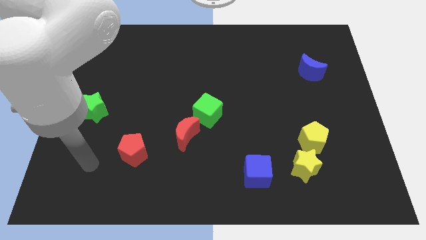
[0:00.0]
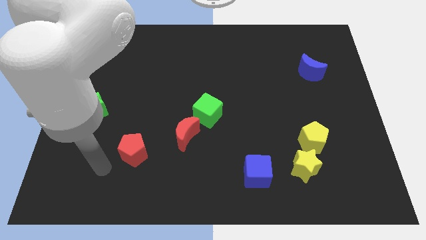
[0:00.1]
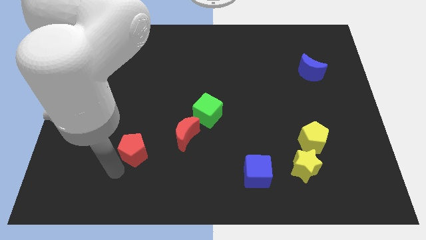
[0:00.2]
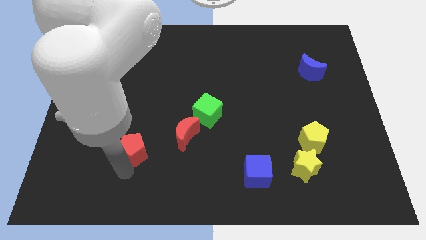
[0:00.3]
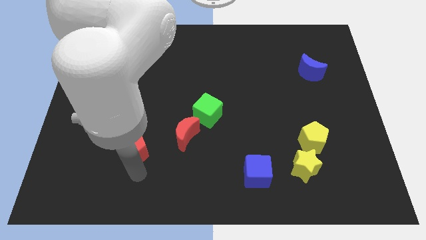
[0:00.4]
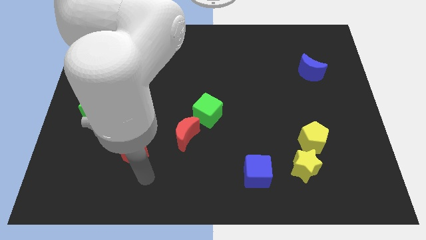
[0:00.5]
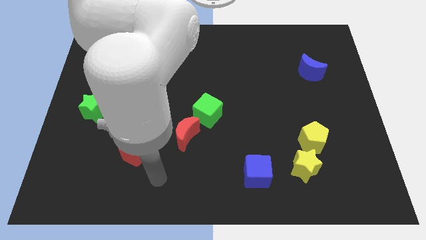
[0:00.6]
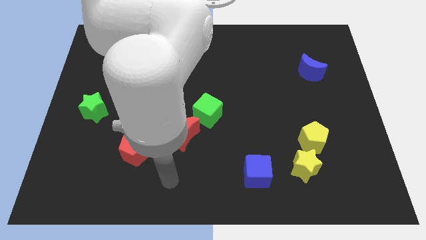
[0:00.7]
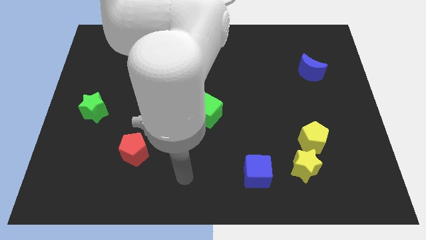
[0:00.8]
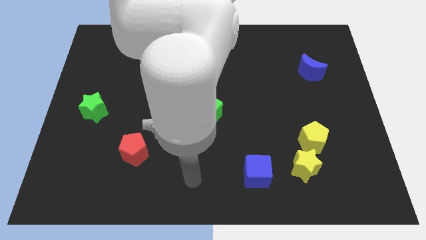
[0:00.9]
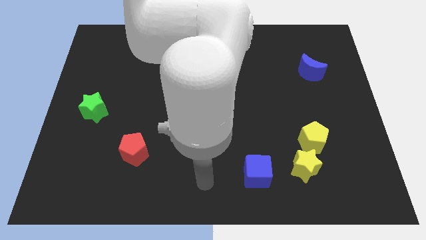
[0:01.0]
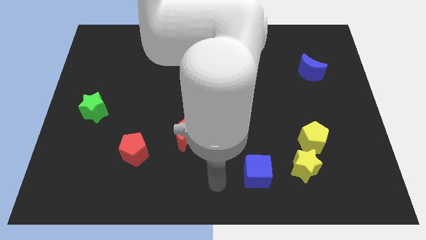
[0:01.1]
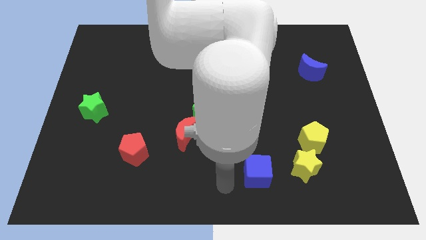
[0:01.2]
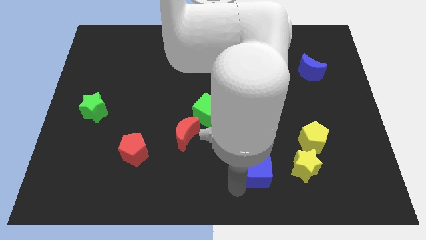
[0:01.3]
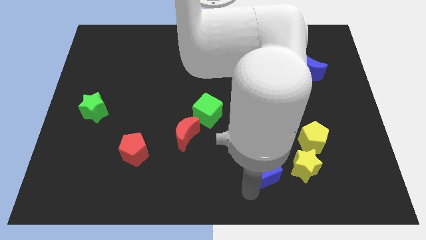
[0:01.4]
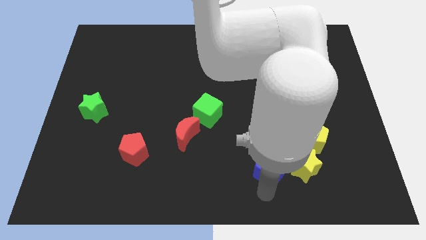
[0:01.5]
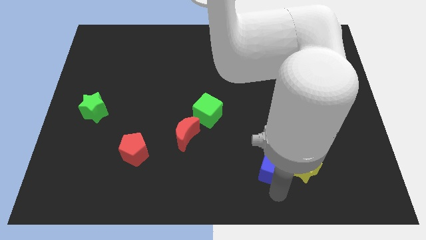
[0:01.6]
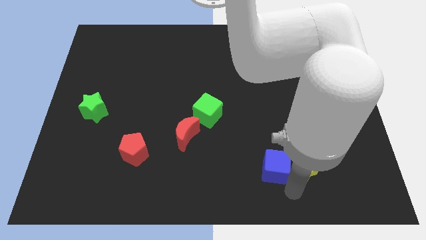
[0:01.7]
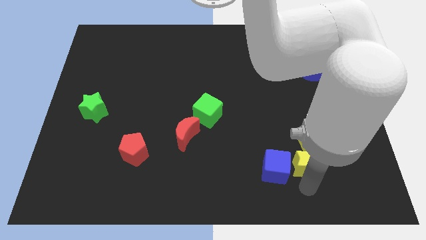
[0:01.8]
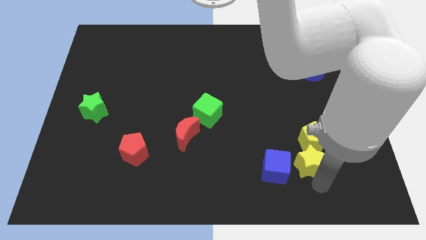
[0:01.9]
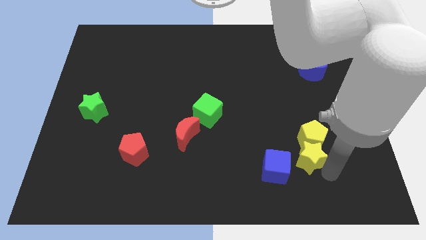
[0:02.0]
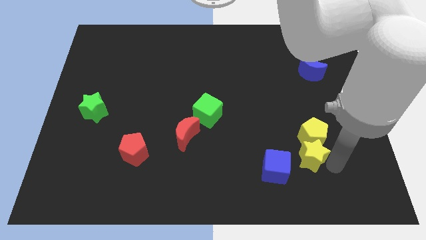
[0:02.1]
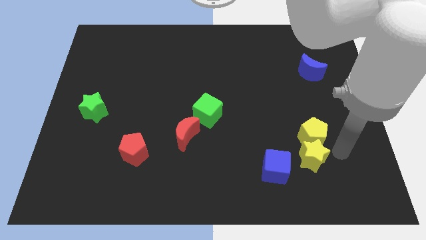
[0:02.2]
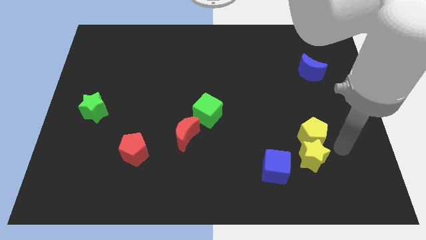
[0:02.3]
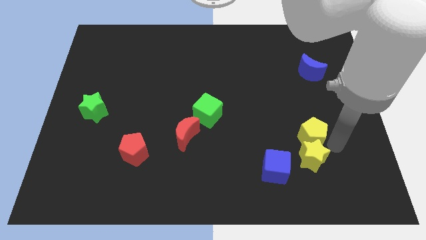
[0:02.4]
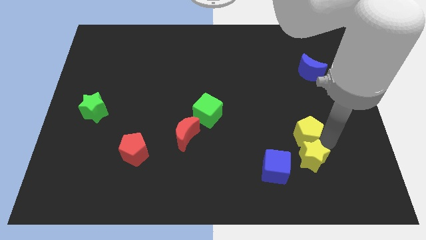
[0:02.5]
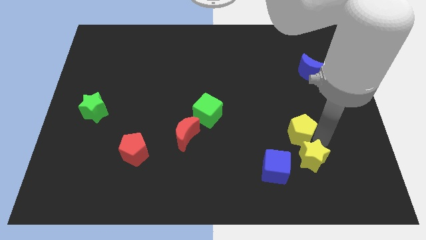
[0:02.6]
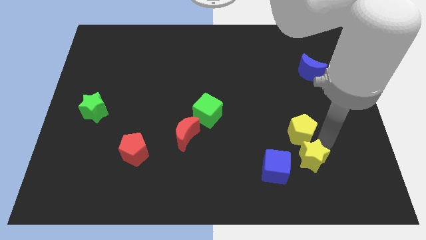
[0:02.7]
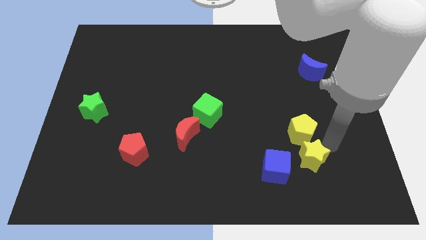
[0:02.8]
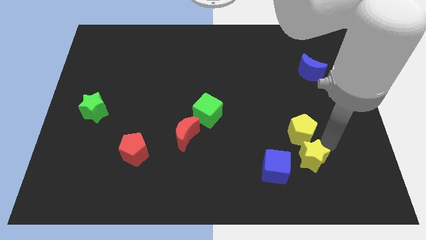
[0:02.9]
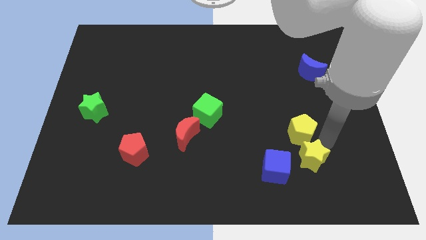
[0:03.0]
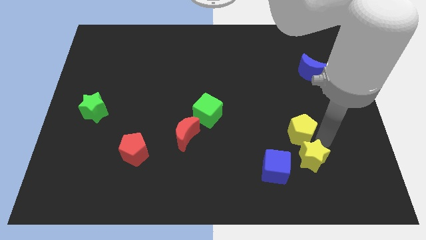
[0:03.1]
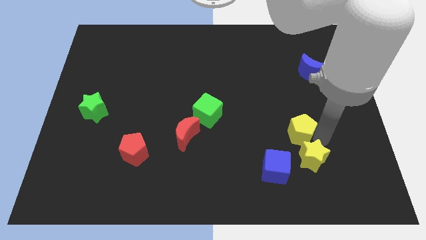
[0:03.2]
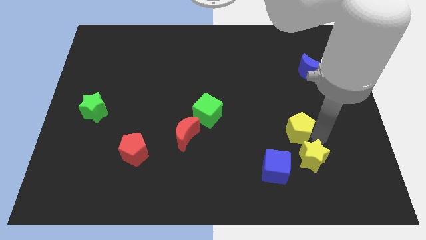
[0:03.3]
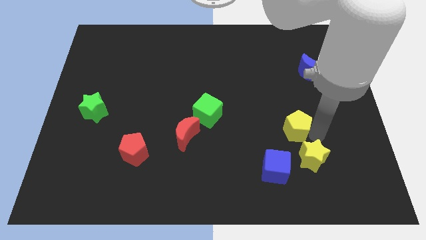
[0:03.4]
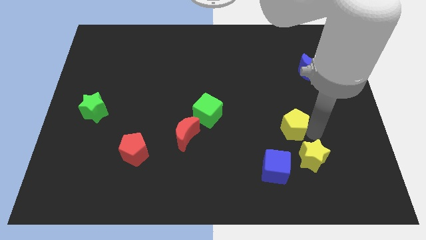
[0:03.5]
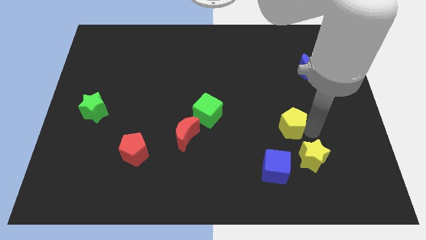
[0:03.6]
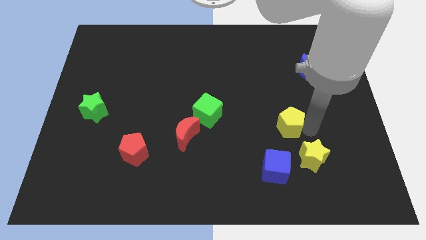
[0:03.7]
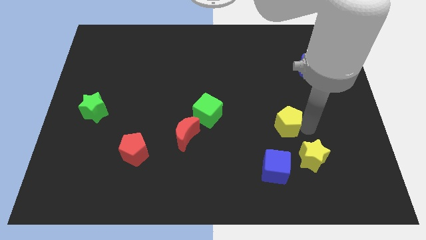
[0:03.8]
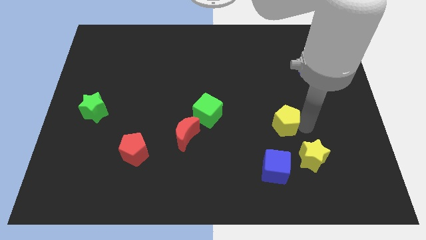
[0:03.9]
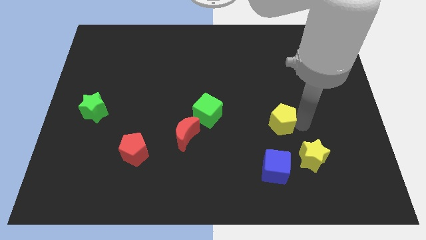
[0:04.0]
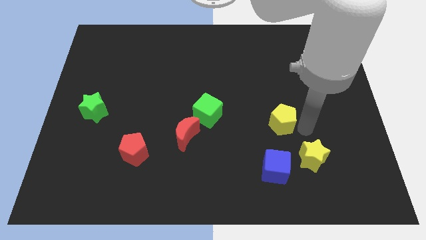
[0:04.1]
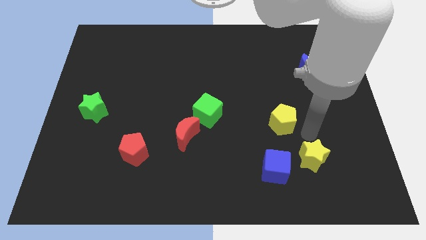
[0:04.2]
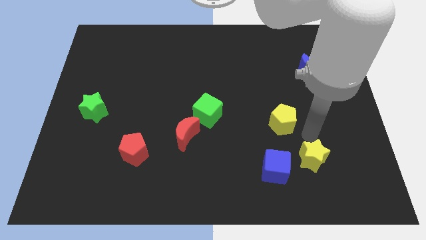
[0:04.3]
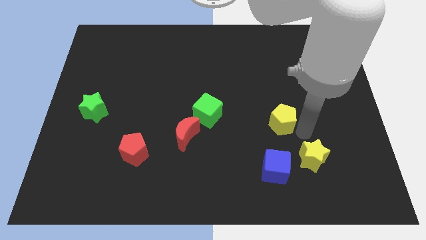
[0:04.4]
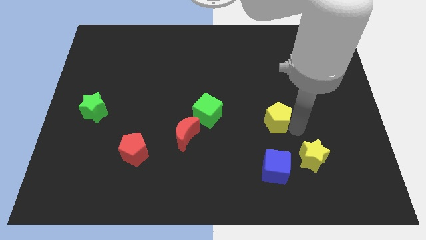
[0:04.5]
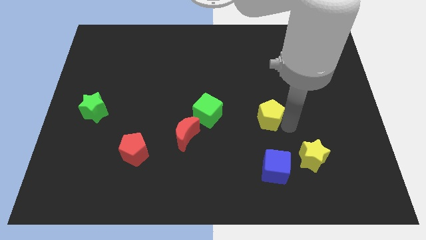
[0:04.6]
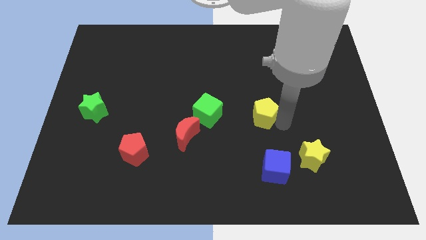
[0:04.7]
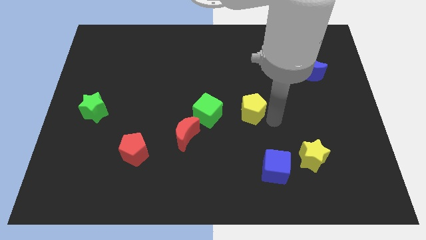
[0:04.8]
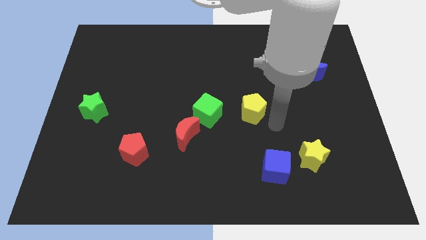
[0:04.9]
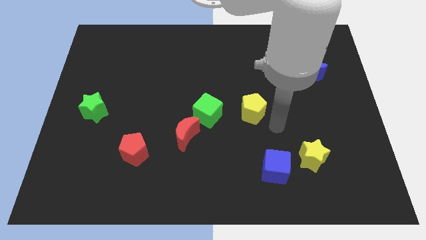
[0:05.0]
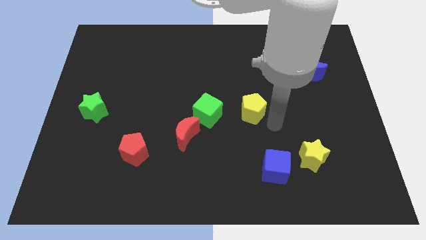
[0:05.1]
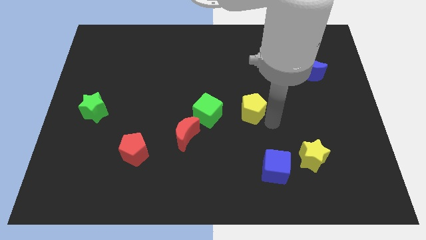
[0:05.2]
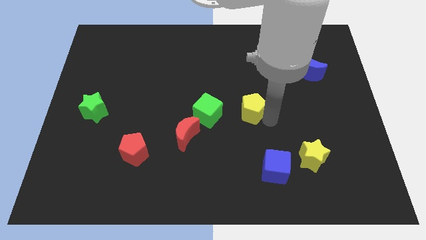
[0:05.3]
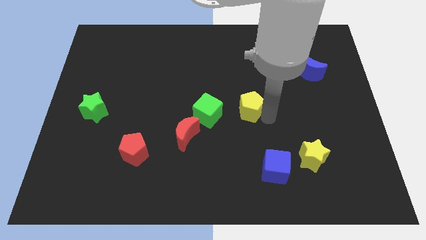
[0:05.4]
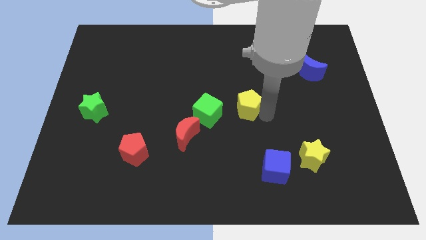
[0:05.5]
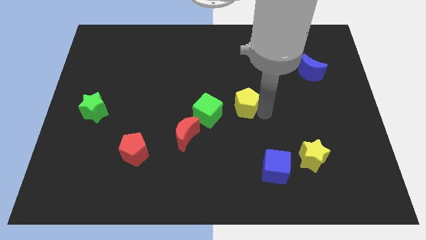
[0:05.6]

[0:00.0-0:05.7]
move the yellow pentagon to the top right side of the green cube

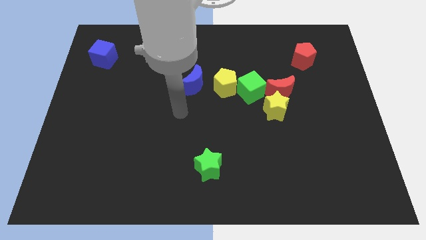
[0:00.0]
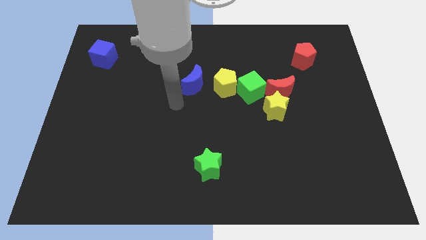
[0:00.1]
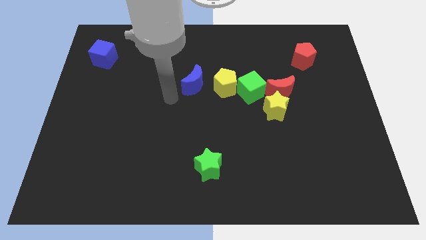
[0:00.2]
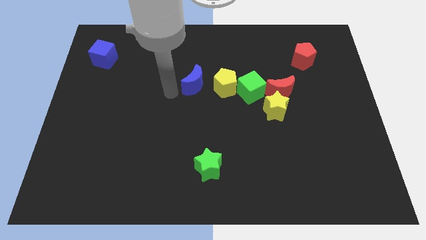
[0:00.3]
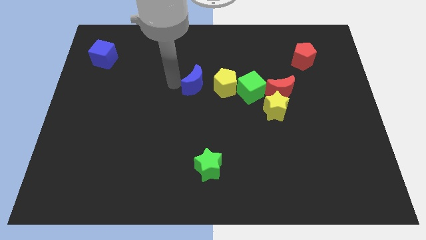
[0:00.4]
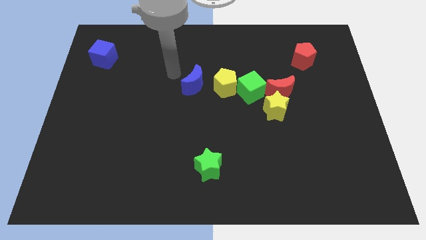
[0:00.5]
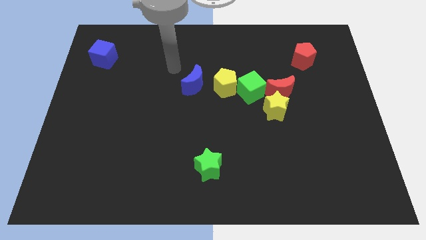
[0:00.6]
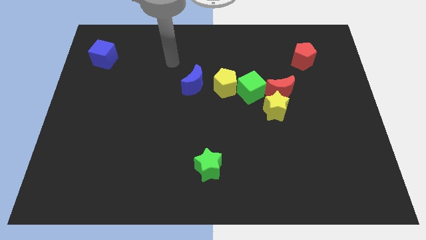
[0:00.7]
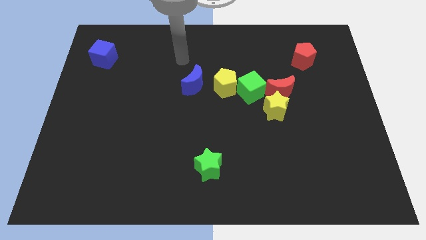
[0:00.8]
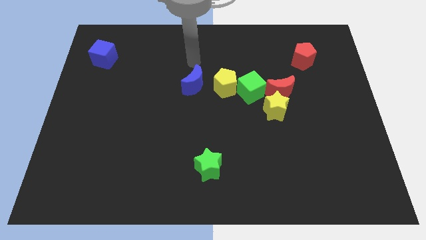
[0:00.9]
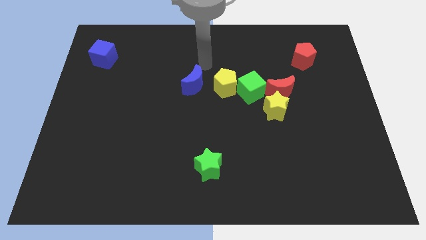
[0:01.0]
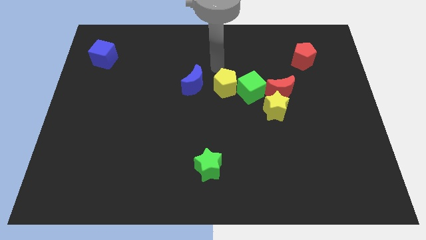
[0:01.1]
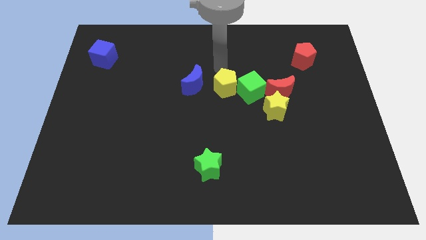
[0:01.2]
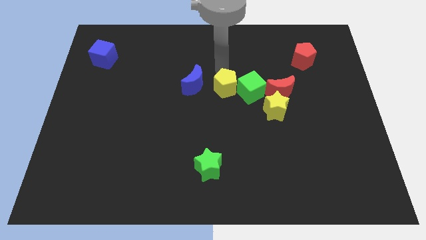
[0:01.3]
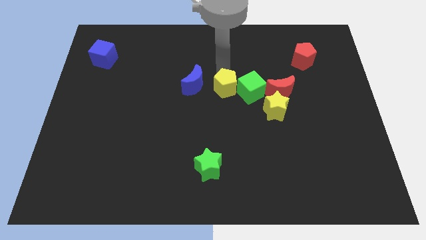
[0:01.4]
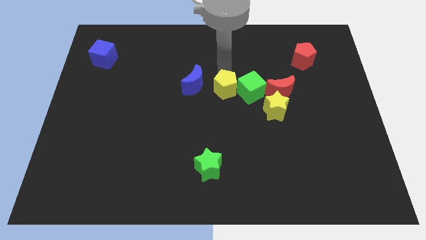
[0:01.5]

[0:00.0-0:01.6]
put the yellow pentagon to the bottom left of the green cube

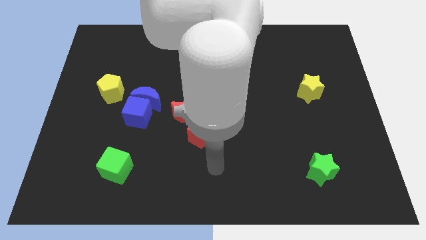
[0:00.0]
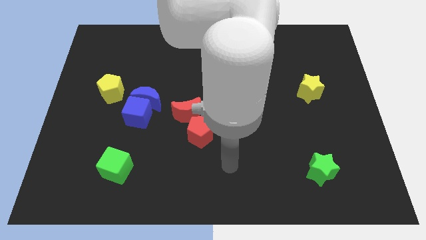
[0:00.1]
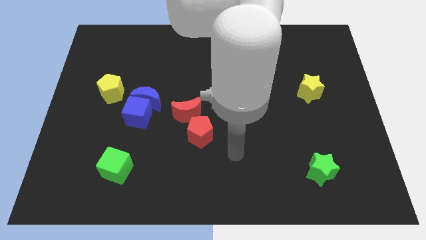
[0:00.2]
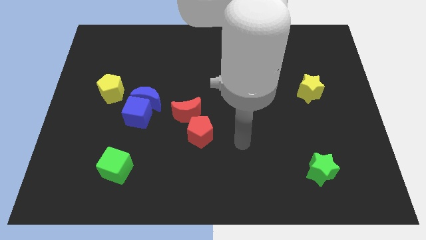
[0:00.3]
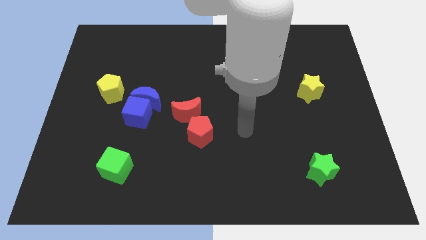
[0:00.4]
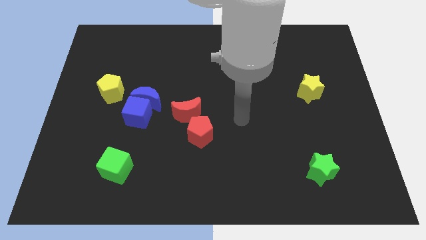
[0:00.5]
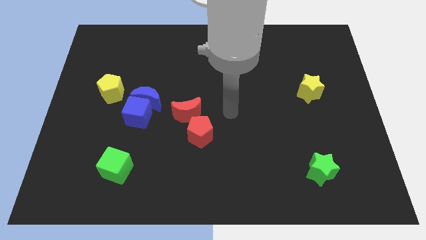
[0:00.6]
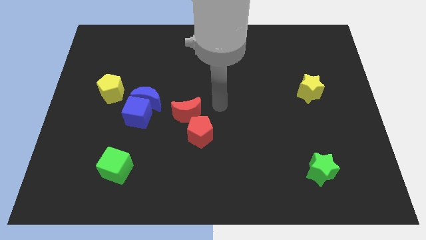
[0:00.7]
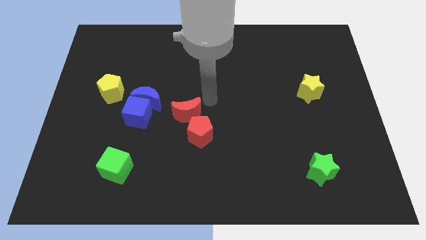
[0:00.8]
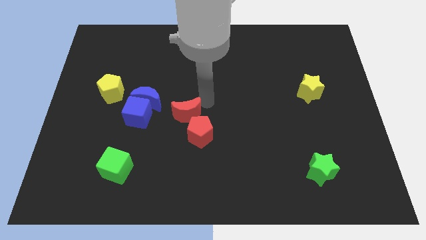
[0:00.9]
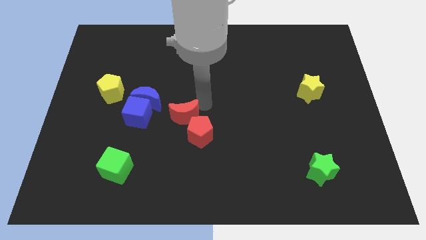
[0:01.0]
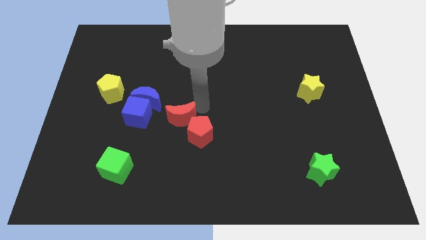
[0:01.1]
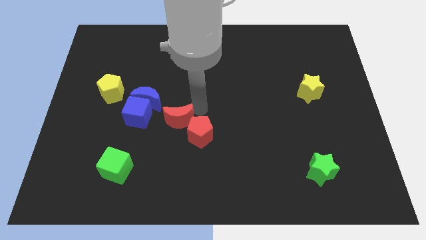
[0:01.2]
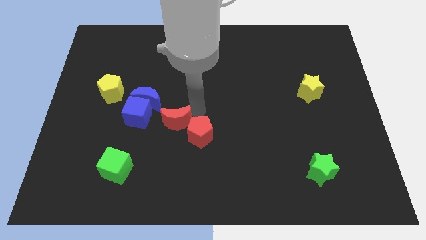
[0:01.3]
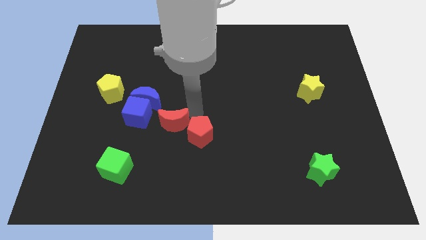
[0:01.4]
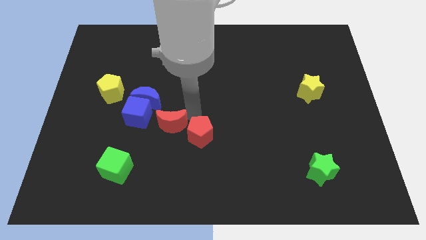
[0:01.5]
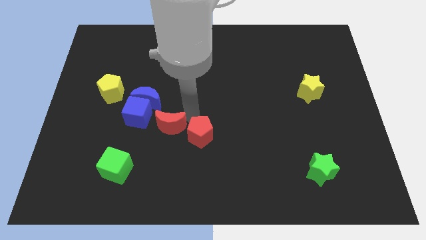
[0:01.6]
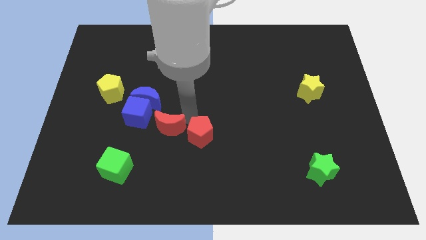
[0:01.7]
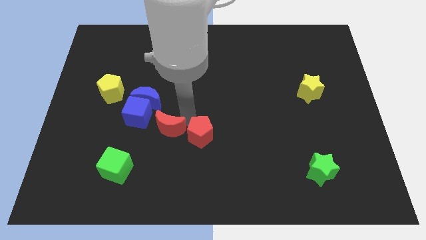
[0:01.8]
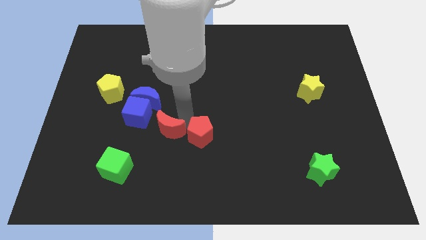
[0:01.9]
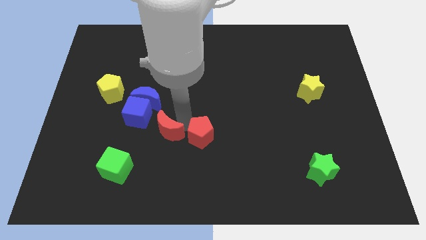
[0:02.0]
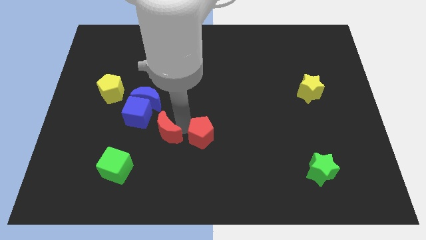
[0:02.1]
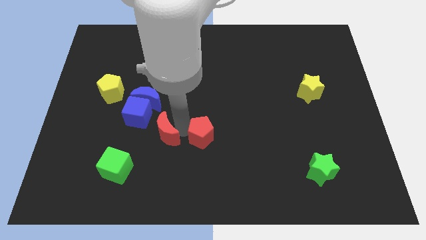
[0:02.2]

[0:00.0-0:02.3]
slide the red moon to the top right of the green cube
